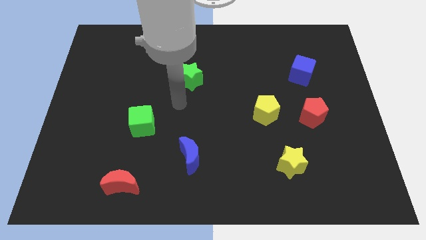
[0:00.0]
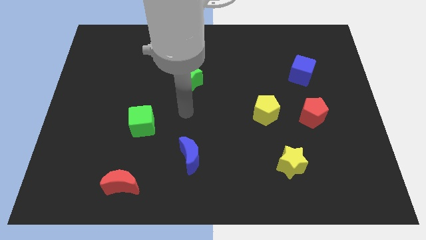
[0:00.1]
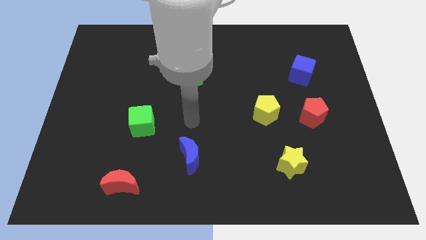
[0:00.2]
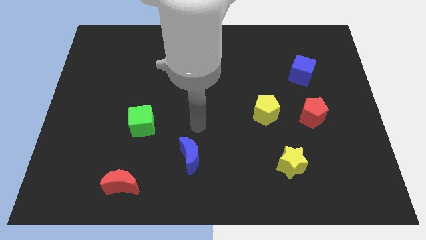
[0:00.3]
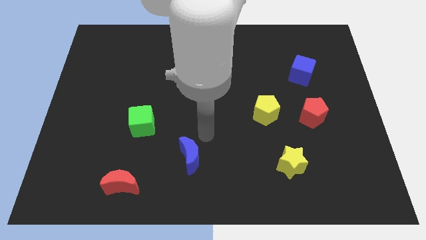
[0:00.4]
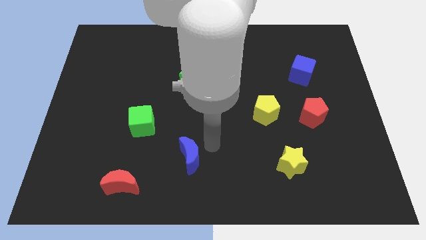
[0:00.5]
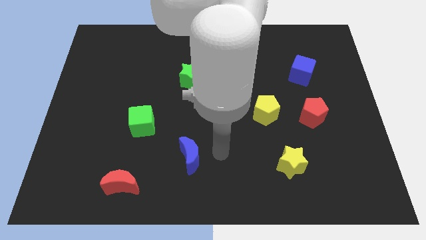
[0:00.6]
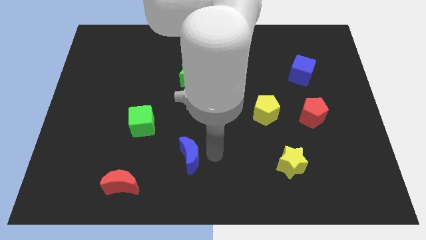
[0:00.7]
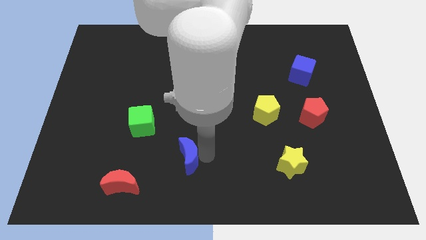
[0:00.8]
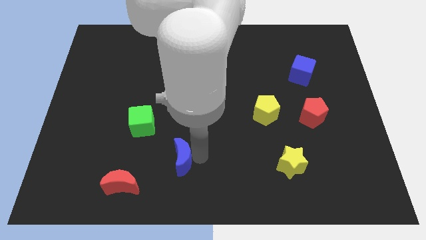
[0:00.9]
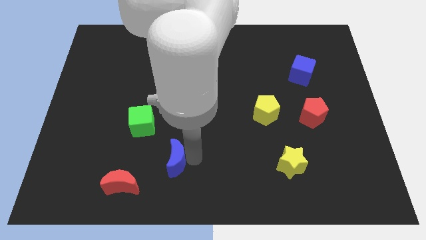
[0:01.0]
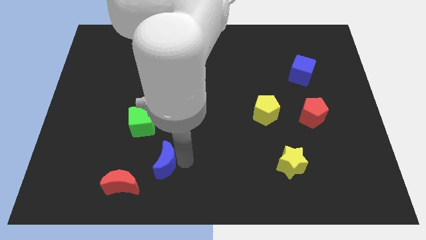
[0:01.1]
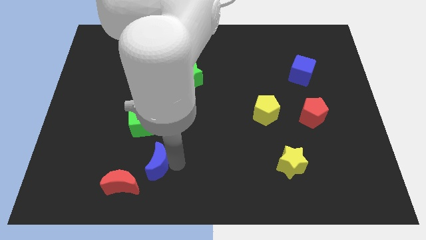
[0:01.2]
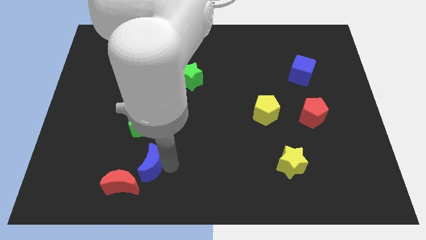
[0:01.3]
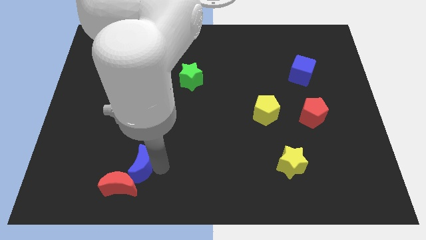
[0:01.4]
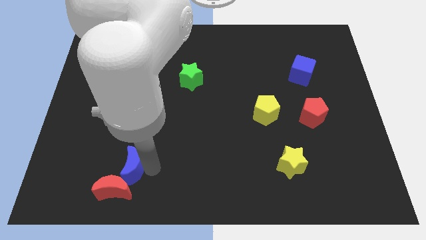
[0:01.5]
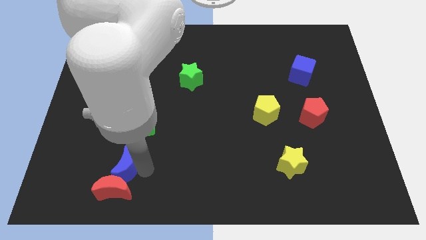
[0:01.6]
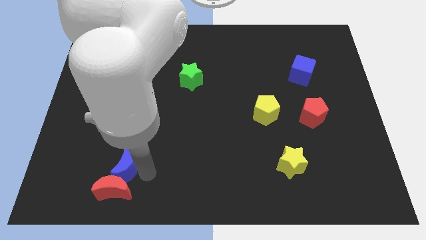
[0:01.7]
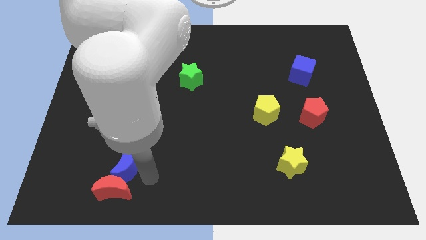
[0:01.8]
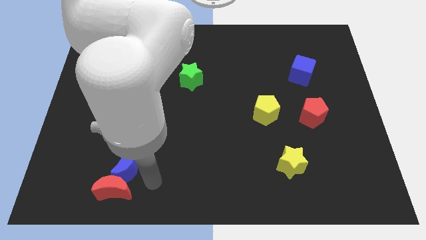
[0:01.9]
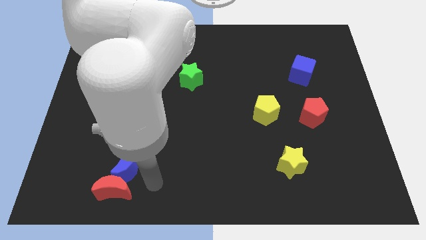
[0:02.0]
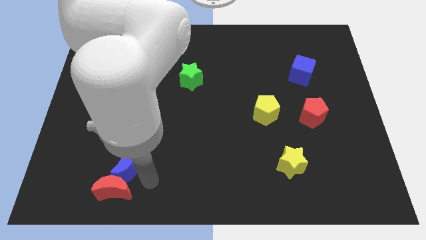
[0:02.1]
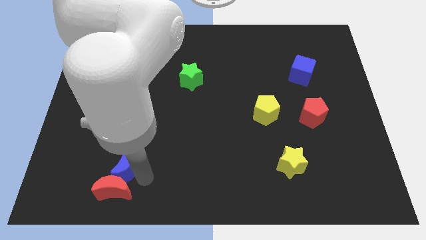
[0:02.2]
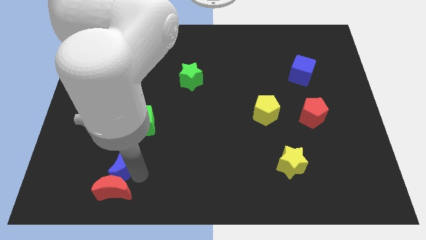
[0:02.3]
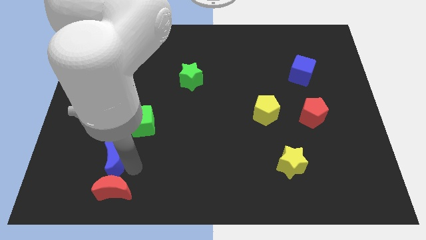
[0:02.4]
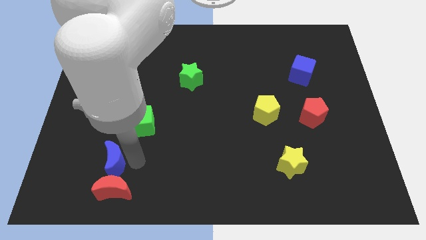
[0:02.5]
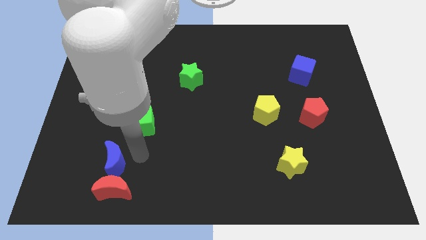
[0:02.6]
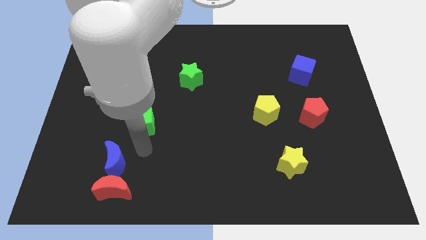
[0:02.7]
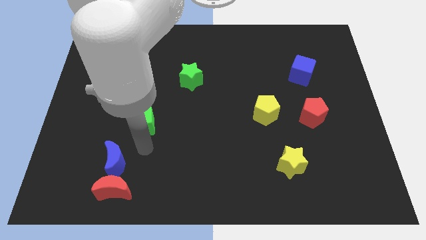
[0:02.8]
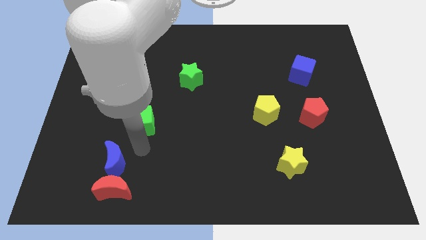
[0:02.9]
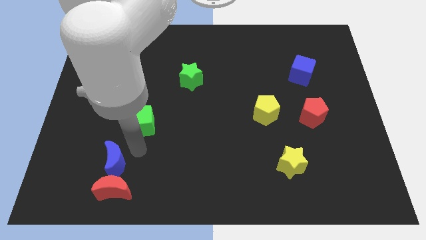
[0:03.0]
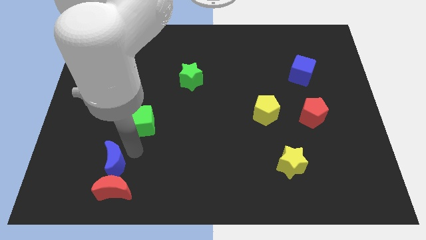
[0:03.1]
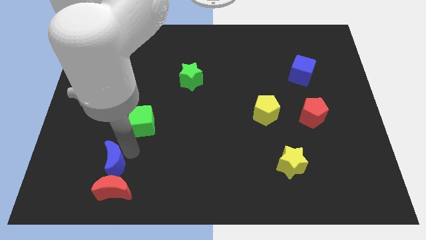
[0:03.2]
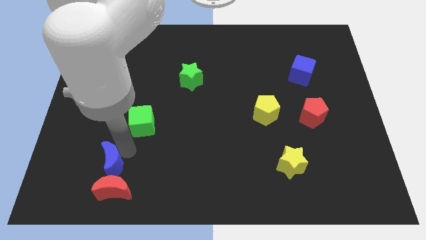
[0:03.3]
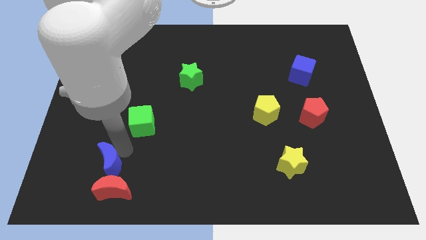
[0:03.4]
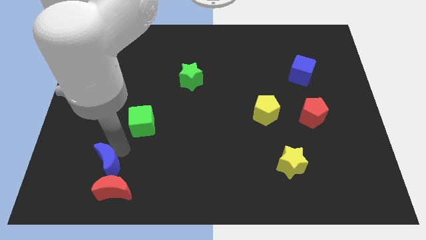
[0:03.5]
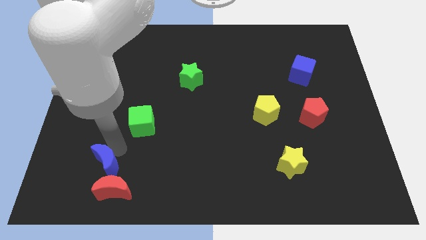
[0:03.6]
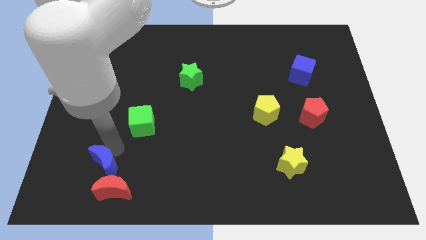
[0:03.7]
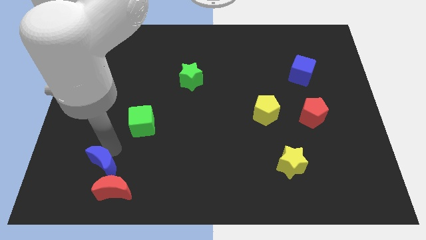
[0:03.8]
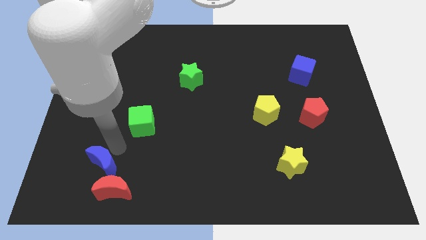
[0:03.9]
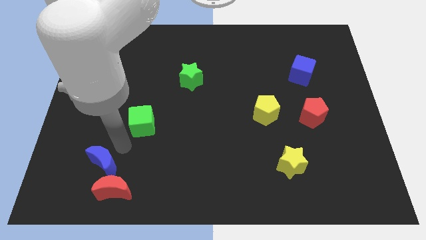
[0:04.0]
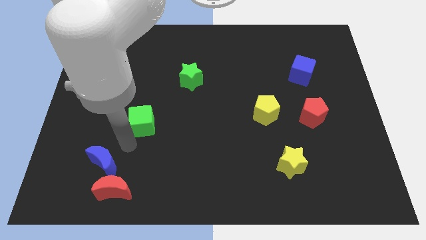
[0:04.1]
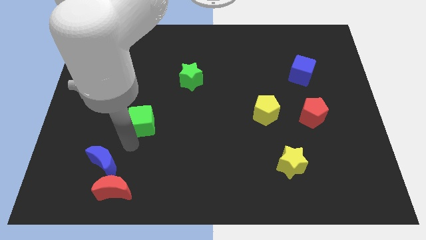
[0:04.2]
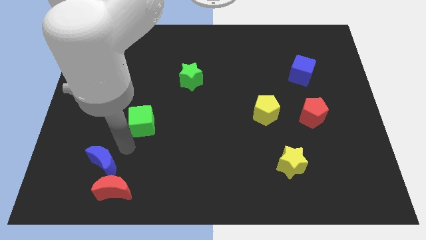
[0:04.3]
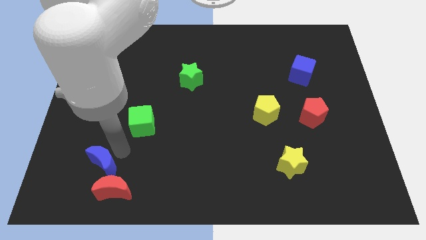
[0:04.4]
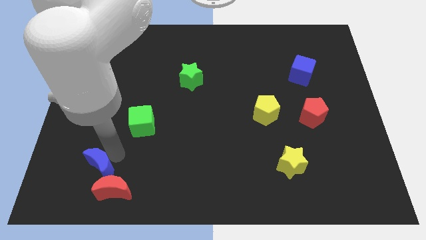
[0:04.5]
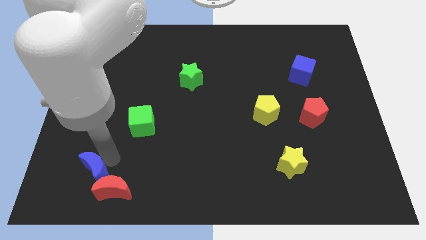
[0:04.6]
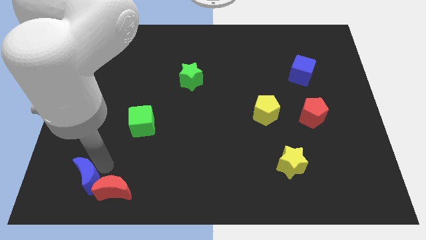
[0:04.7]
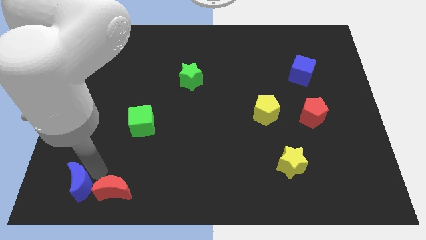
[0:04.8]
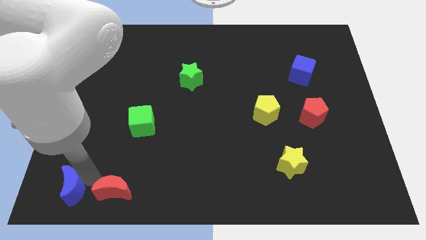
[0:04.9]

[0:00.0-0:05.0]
push the blue moon to the bottom left

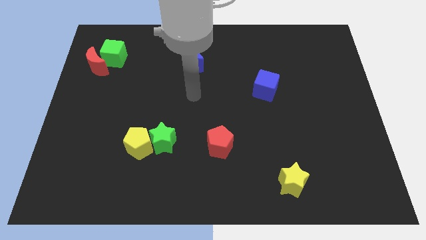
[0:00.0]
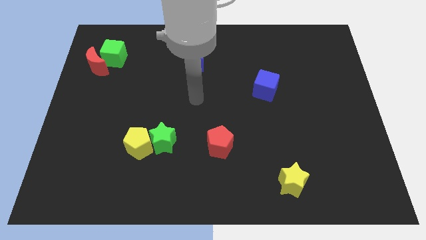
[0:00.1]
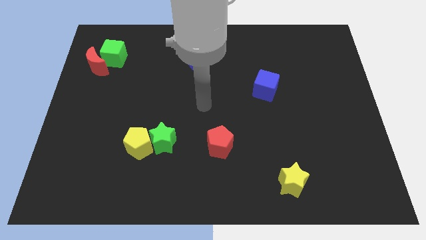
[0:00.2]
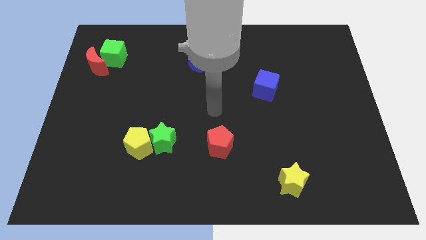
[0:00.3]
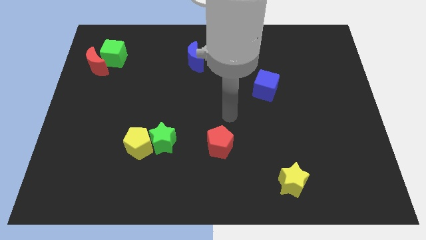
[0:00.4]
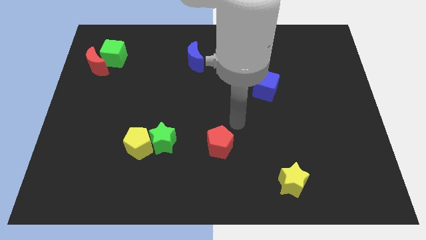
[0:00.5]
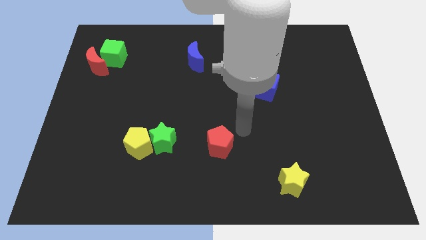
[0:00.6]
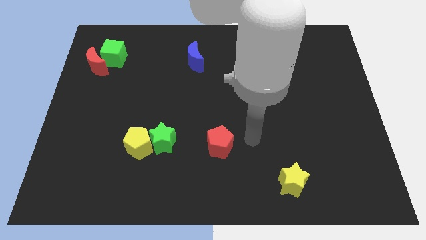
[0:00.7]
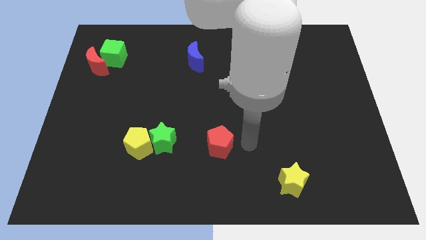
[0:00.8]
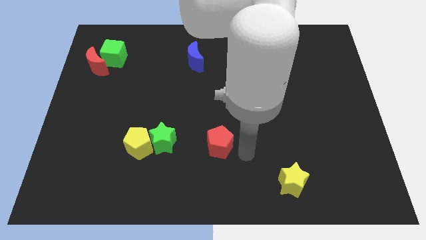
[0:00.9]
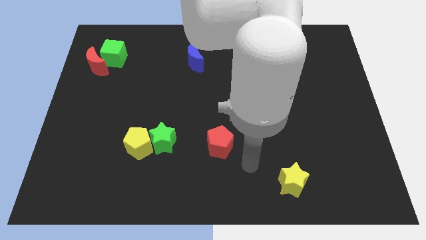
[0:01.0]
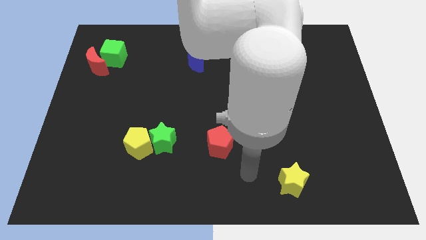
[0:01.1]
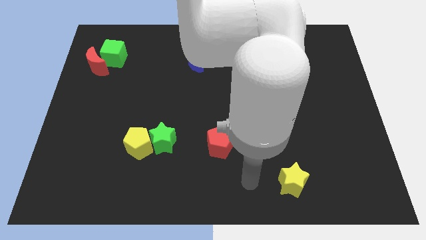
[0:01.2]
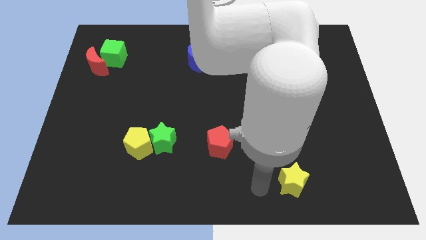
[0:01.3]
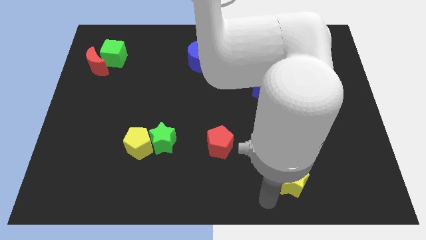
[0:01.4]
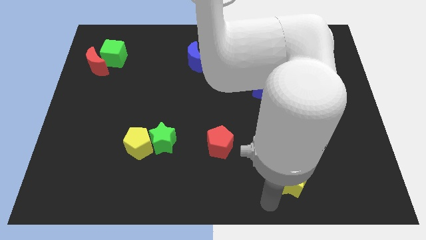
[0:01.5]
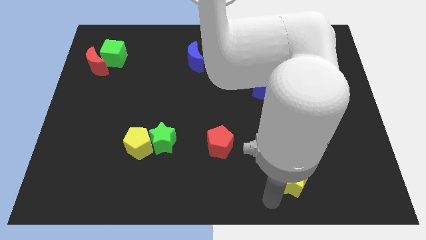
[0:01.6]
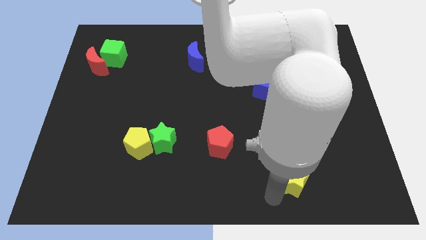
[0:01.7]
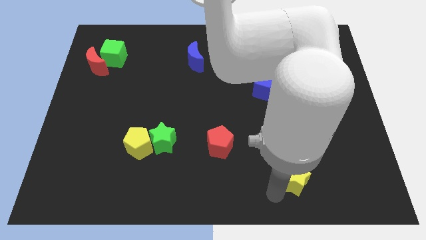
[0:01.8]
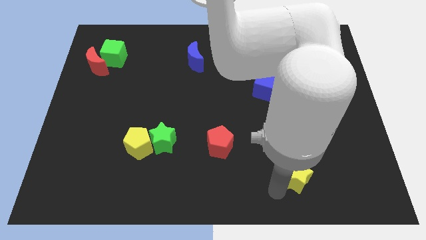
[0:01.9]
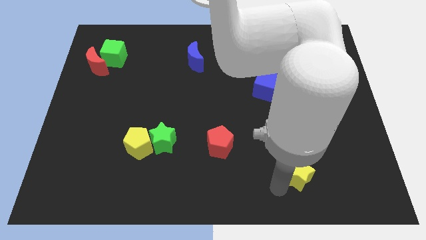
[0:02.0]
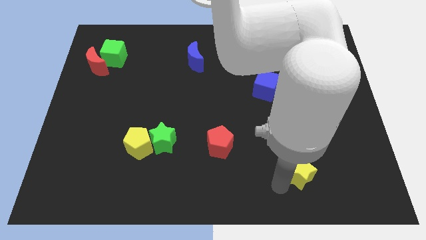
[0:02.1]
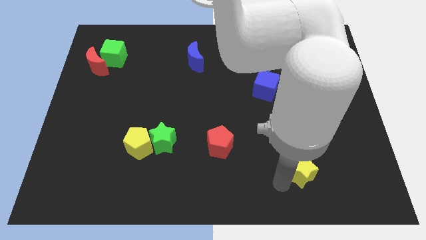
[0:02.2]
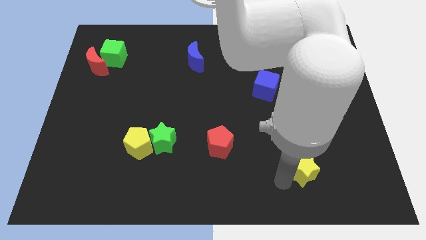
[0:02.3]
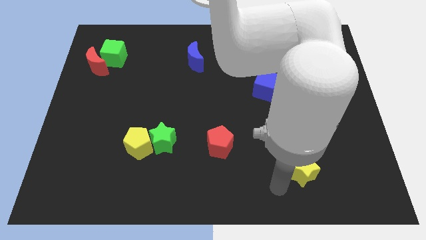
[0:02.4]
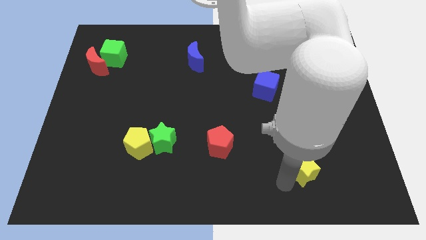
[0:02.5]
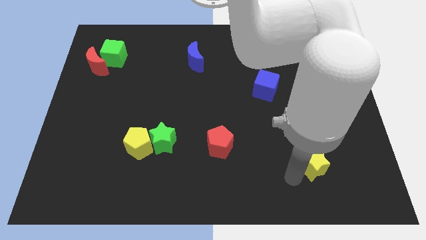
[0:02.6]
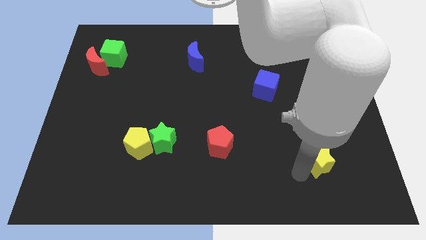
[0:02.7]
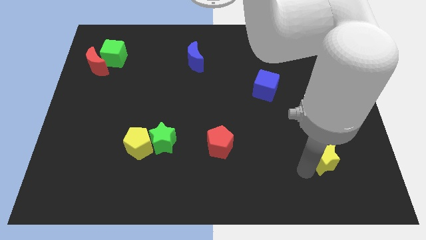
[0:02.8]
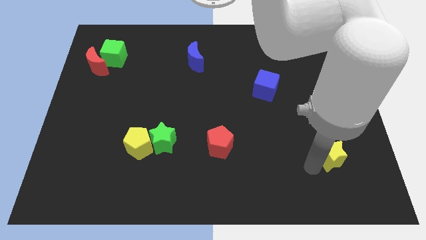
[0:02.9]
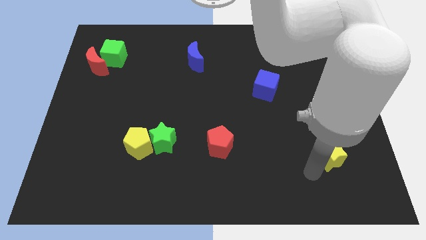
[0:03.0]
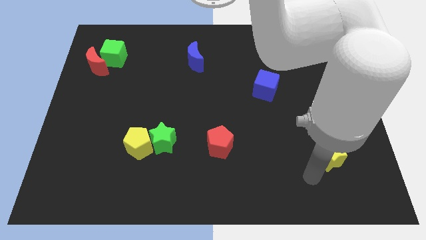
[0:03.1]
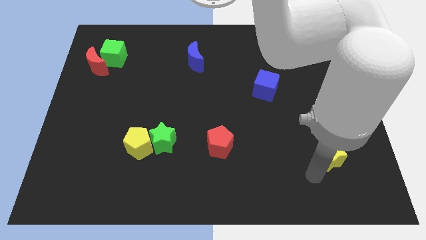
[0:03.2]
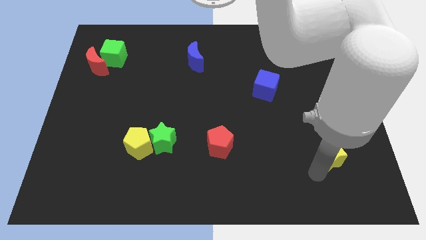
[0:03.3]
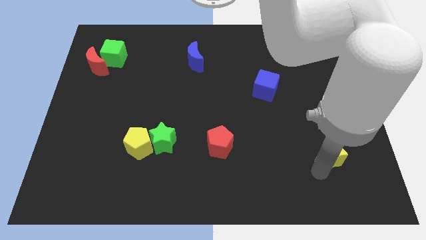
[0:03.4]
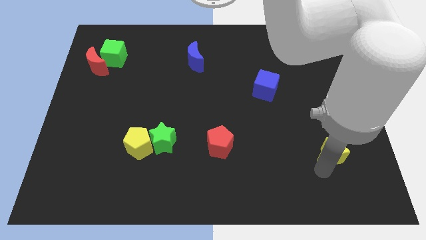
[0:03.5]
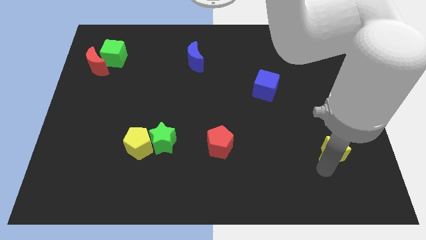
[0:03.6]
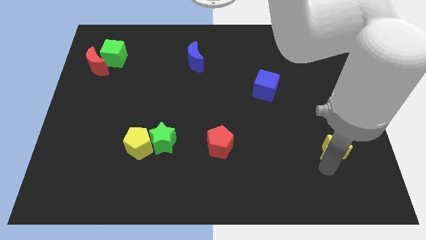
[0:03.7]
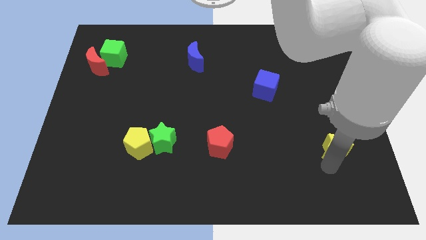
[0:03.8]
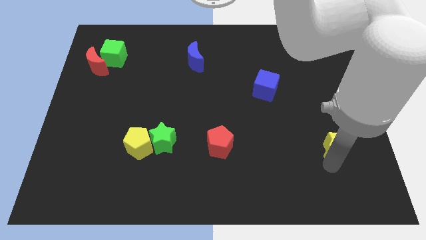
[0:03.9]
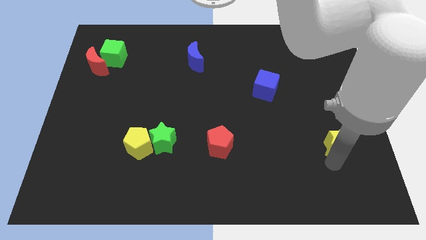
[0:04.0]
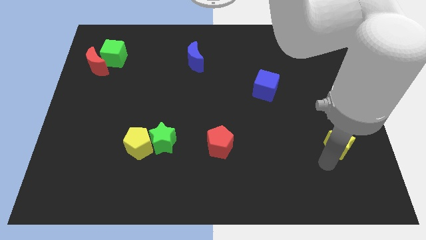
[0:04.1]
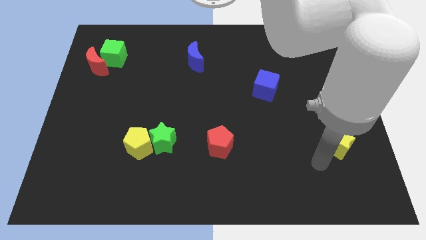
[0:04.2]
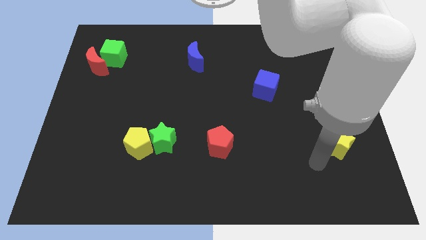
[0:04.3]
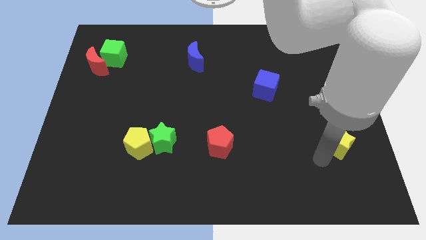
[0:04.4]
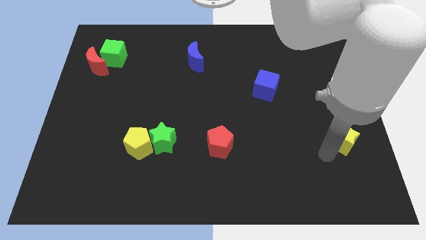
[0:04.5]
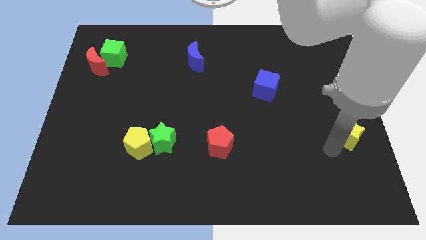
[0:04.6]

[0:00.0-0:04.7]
push the yellow star to the right side
